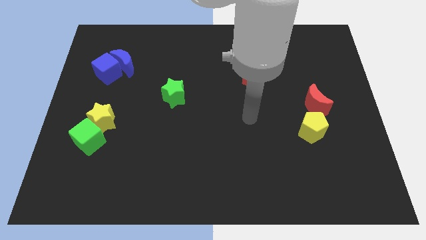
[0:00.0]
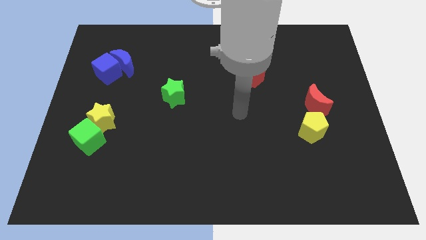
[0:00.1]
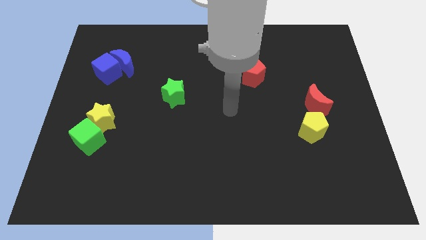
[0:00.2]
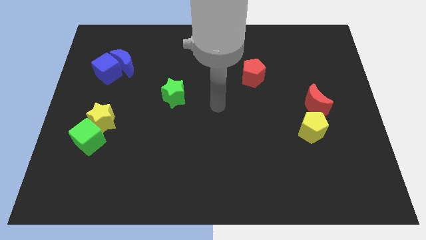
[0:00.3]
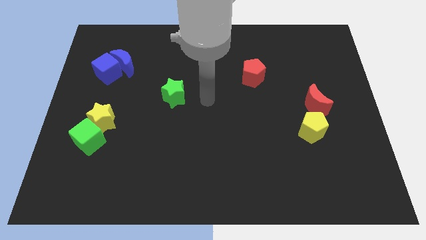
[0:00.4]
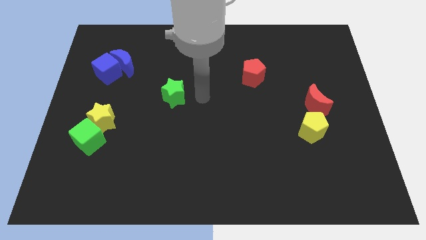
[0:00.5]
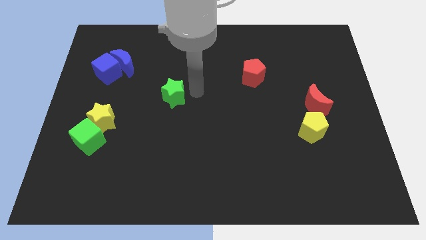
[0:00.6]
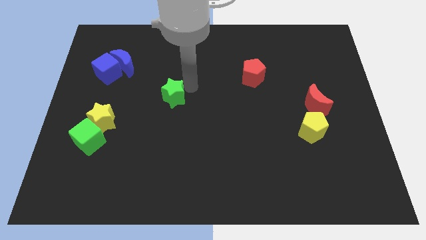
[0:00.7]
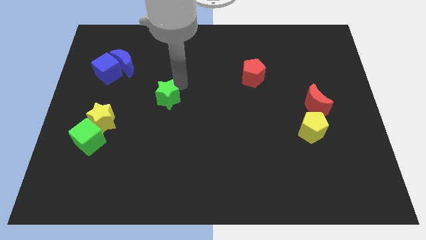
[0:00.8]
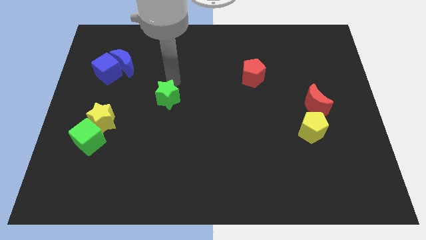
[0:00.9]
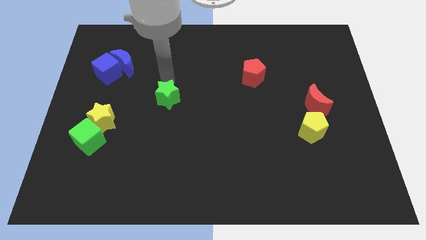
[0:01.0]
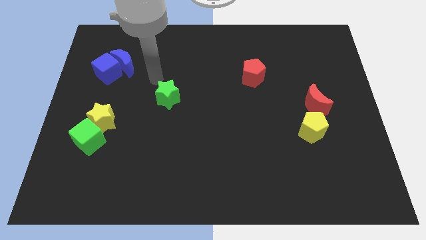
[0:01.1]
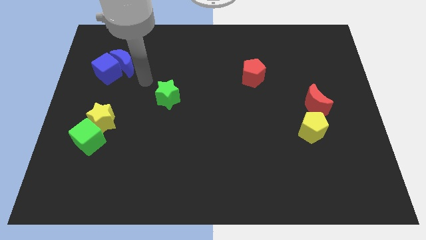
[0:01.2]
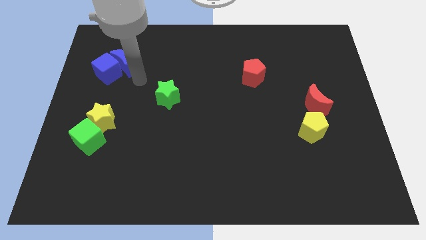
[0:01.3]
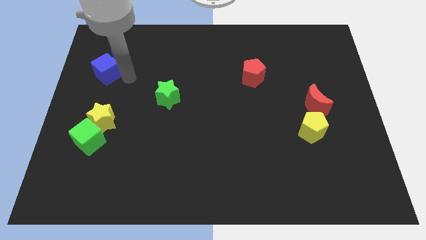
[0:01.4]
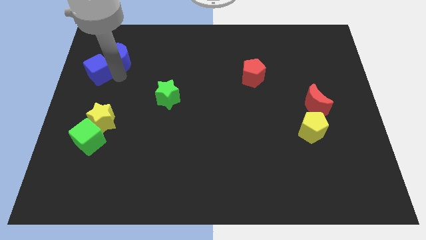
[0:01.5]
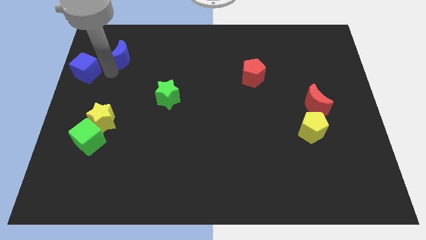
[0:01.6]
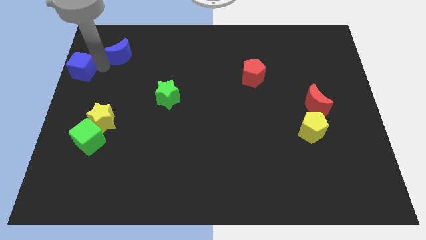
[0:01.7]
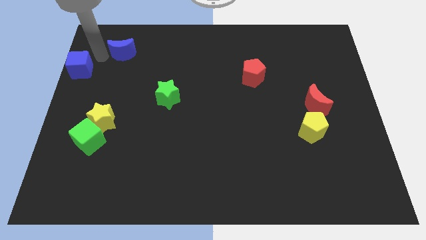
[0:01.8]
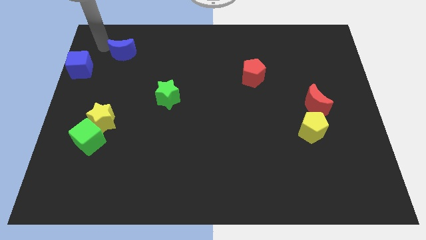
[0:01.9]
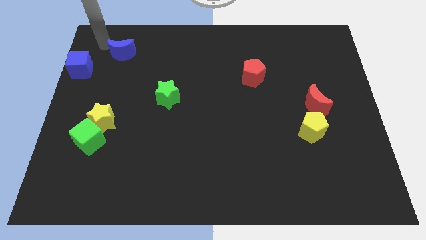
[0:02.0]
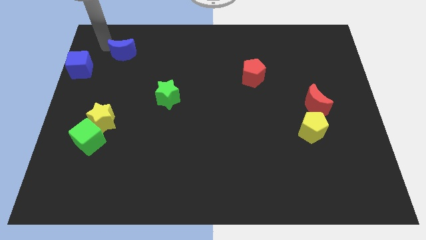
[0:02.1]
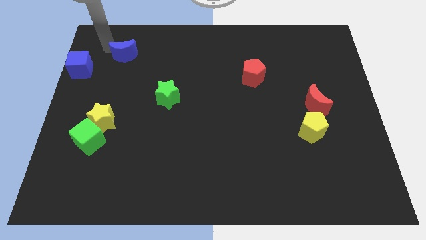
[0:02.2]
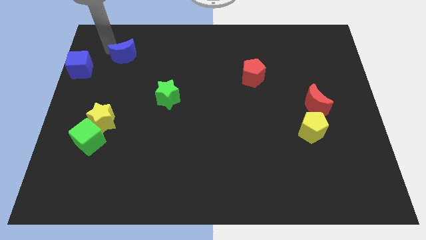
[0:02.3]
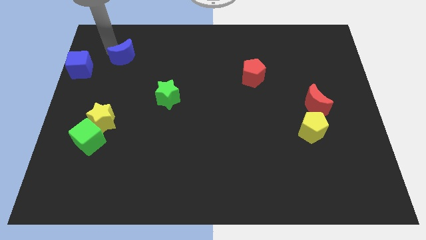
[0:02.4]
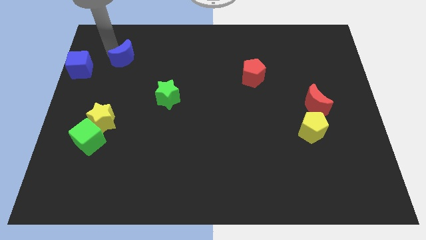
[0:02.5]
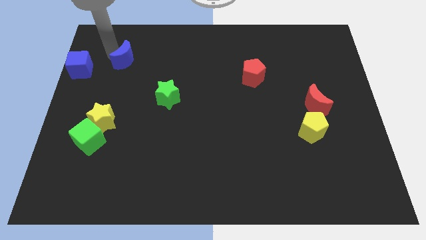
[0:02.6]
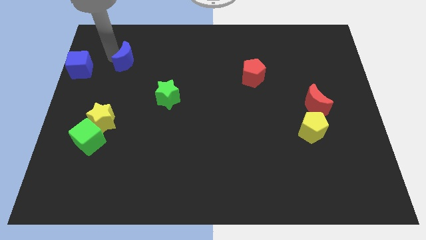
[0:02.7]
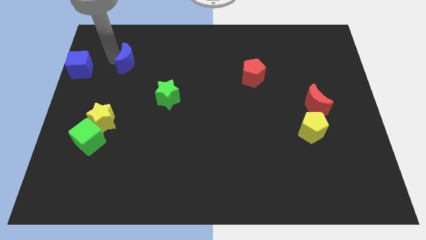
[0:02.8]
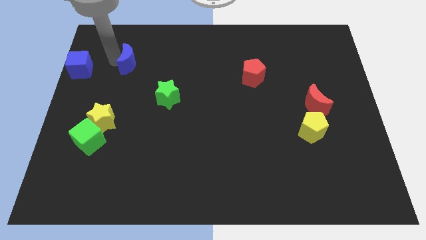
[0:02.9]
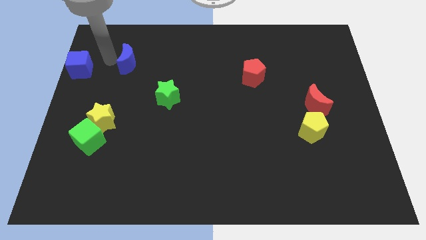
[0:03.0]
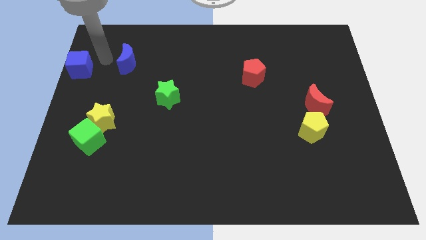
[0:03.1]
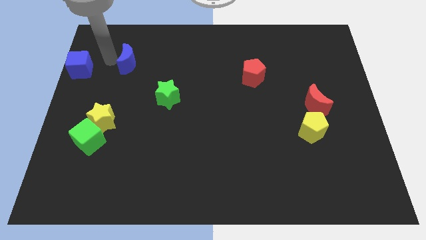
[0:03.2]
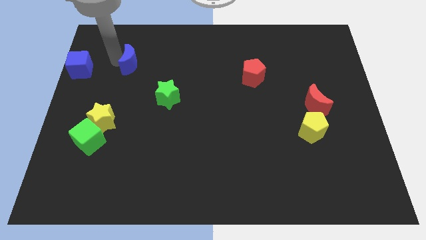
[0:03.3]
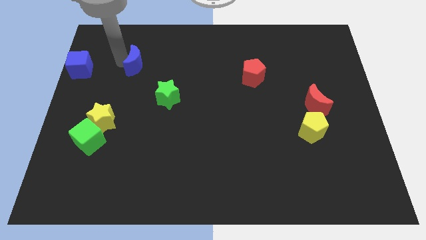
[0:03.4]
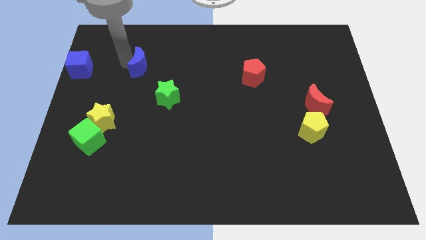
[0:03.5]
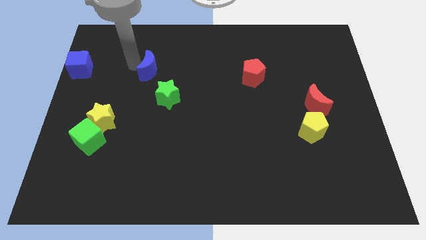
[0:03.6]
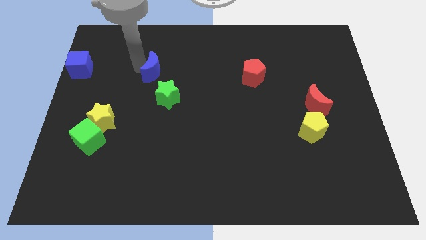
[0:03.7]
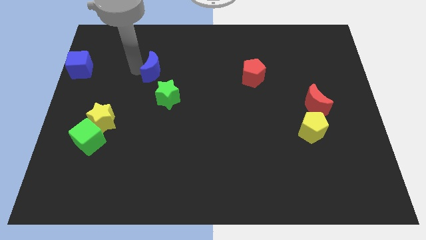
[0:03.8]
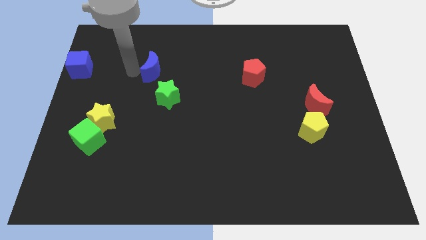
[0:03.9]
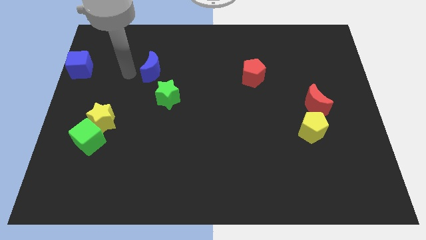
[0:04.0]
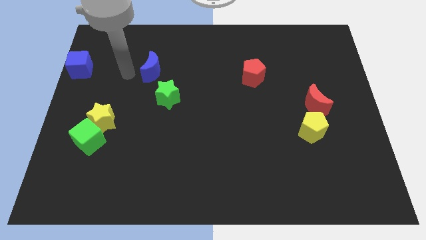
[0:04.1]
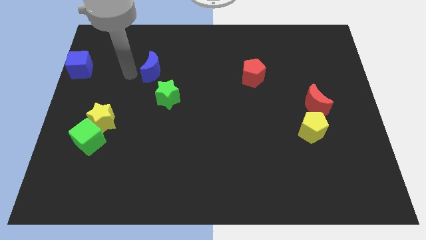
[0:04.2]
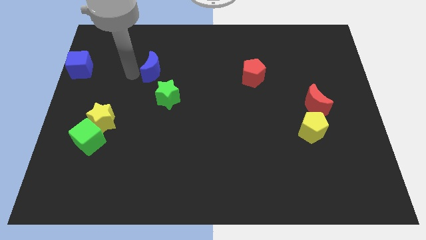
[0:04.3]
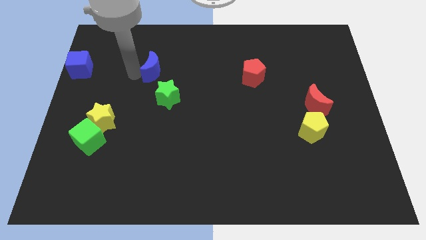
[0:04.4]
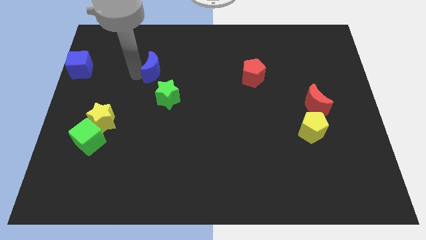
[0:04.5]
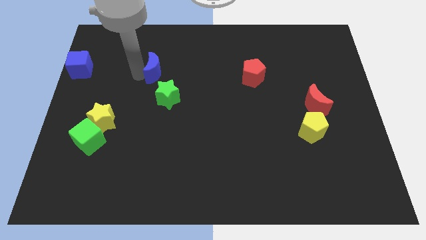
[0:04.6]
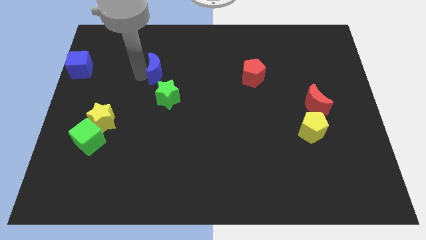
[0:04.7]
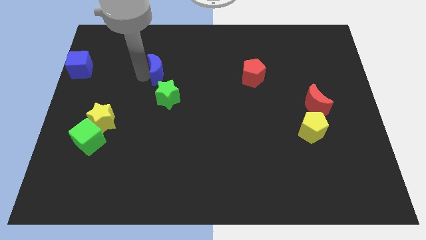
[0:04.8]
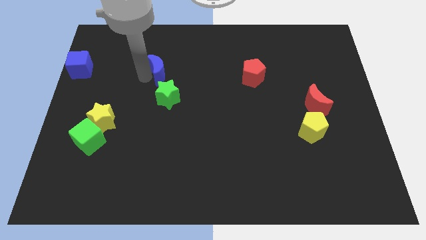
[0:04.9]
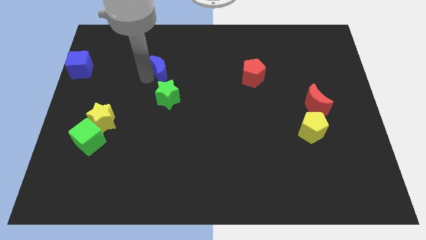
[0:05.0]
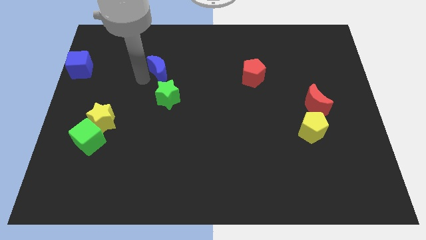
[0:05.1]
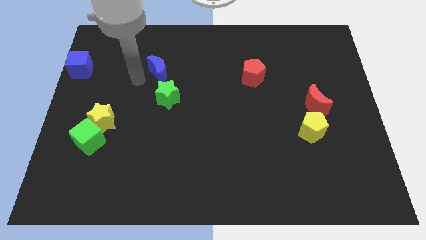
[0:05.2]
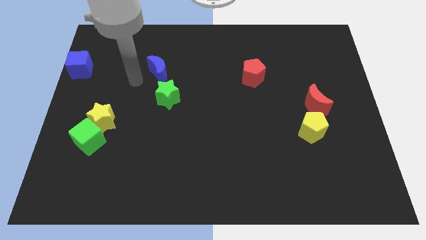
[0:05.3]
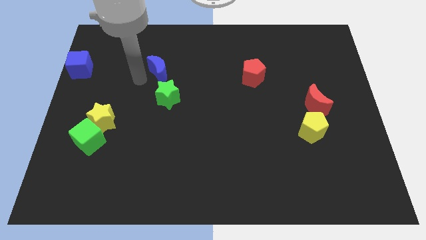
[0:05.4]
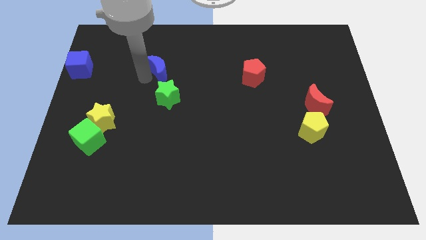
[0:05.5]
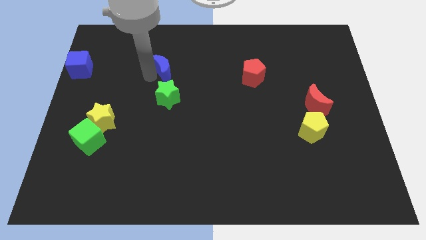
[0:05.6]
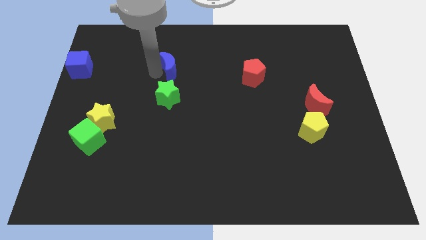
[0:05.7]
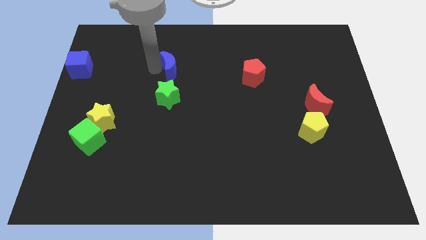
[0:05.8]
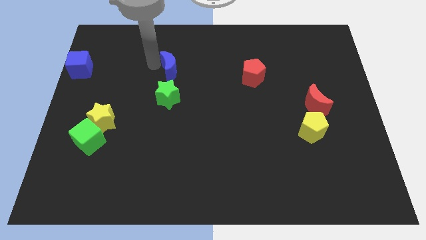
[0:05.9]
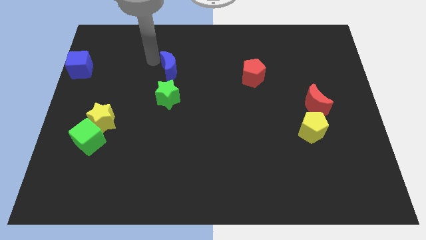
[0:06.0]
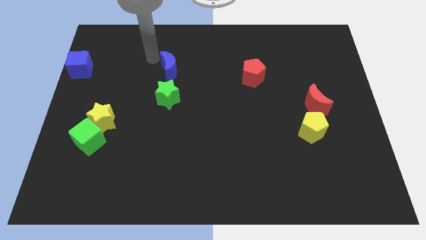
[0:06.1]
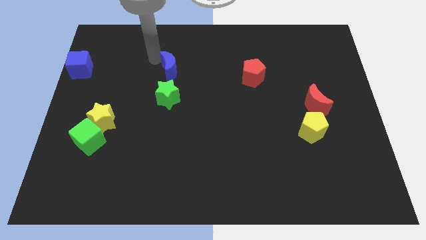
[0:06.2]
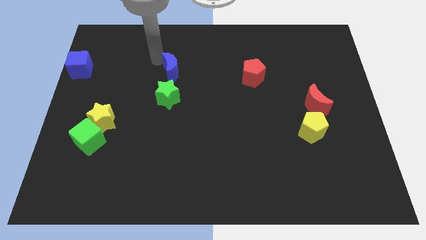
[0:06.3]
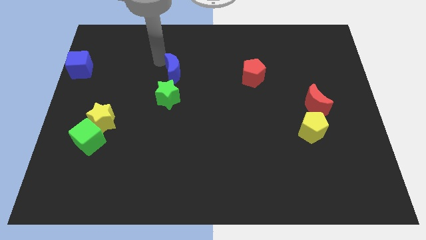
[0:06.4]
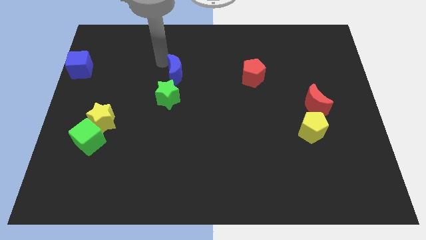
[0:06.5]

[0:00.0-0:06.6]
move the blue moon to the top right side of the green star

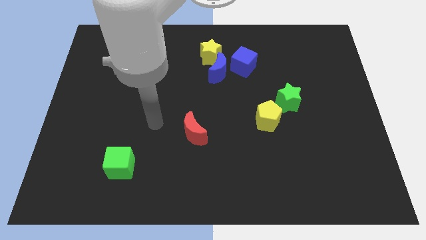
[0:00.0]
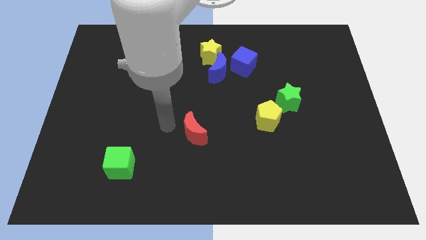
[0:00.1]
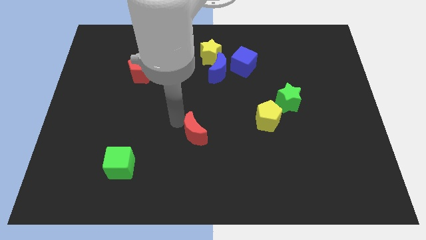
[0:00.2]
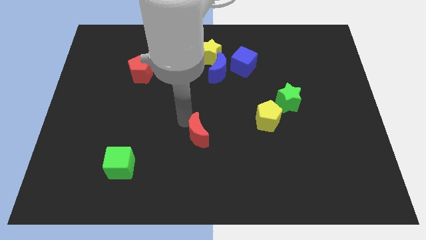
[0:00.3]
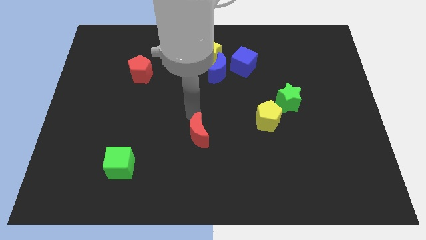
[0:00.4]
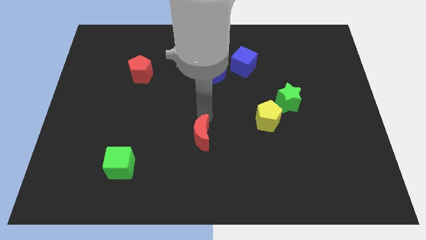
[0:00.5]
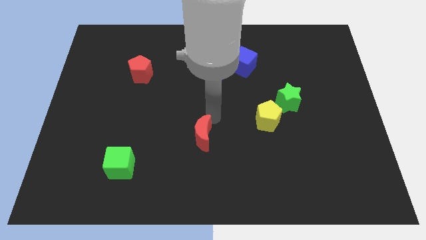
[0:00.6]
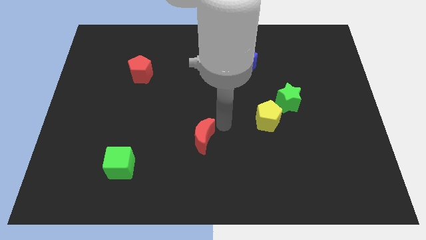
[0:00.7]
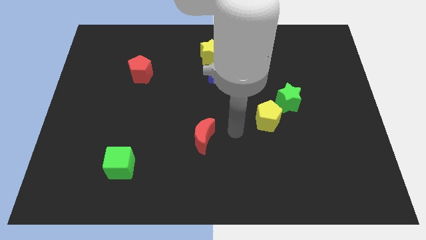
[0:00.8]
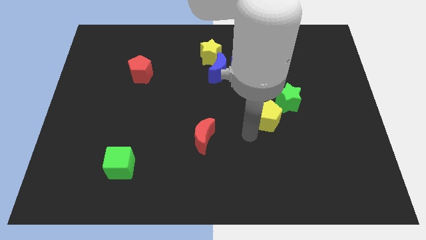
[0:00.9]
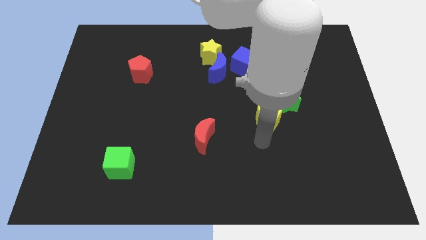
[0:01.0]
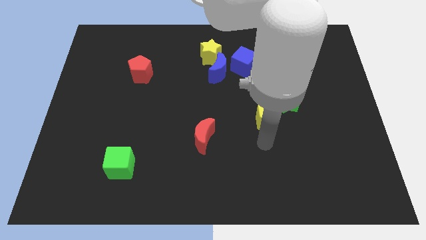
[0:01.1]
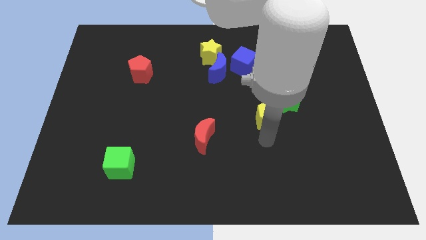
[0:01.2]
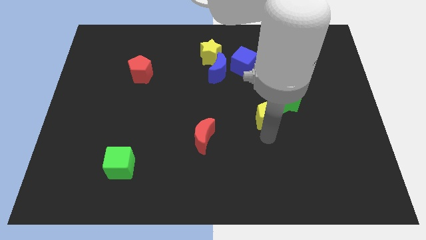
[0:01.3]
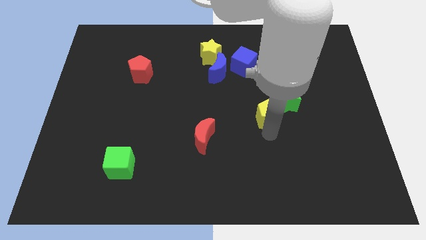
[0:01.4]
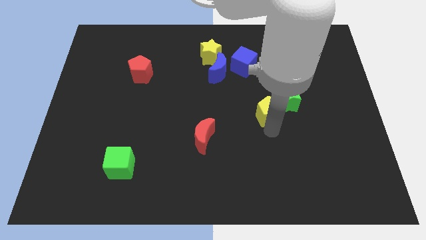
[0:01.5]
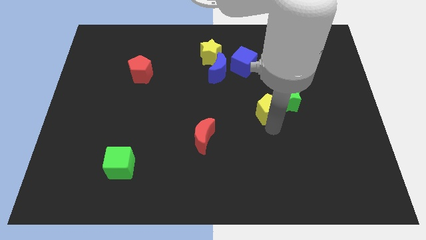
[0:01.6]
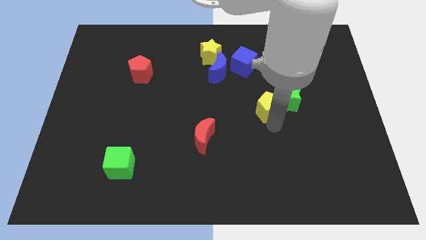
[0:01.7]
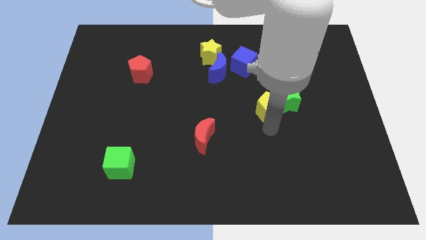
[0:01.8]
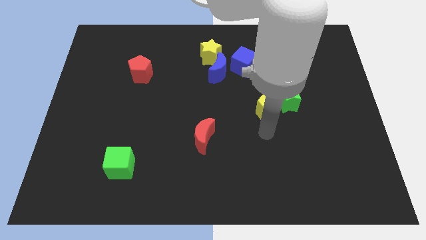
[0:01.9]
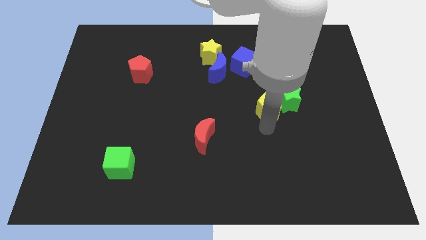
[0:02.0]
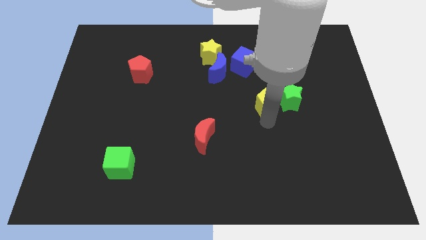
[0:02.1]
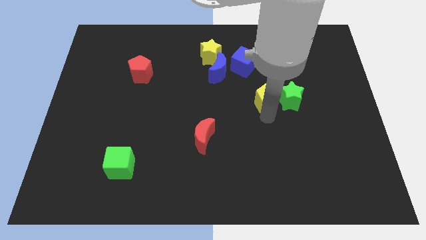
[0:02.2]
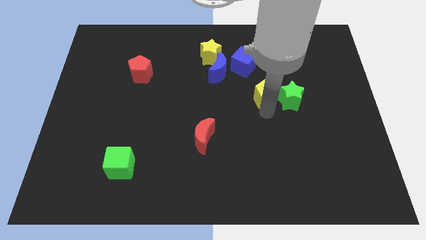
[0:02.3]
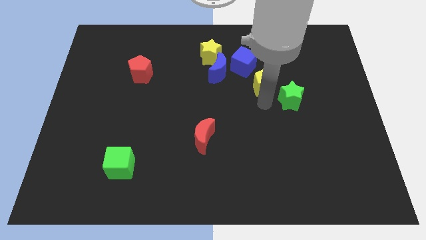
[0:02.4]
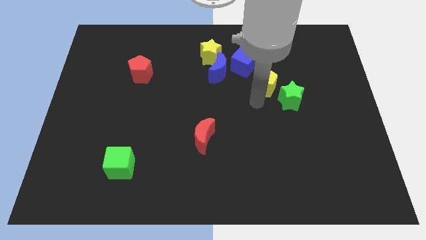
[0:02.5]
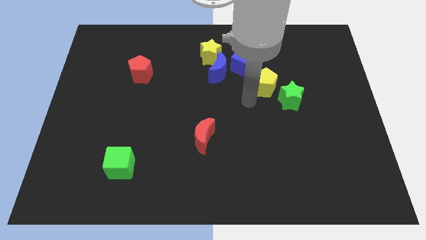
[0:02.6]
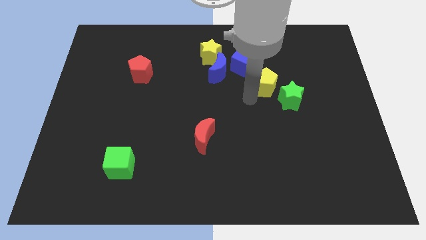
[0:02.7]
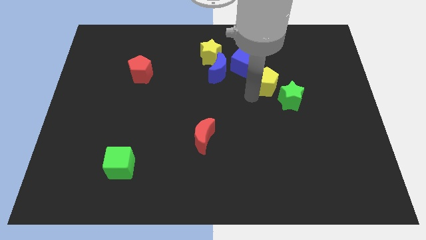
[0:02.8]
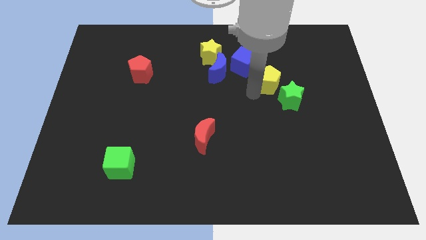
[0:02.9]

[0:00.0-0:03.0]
put the yellow pentagon to the top of the green star
